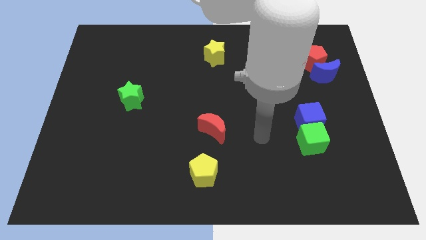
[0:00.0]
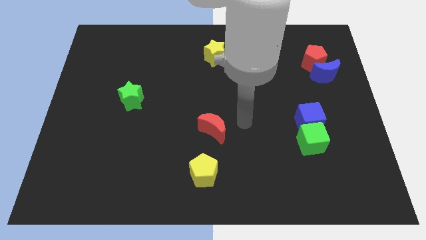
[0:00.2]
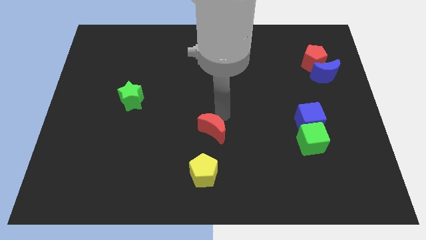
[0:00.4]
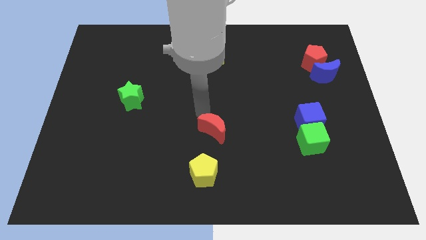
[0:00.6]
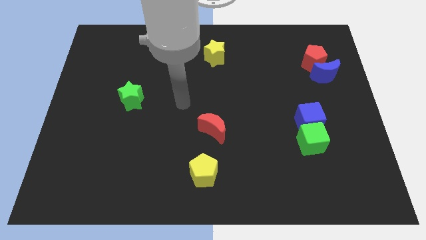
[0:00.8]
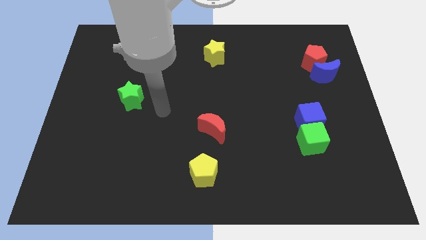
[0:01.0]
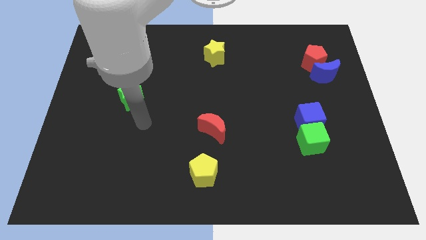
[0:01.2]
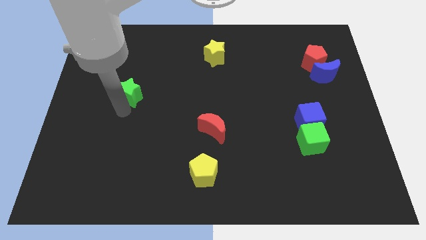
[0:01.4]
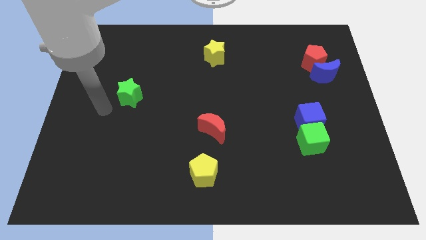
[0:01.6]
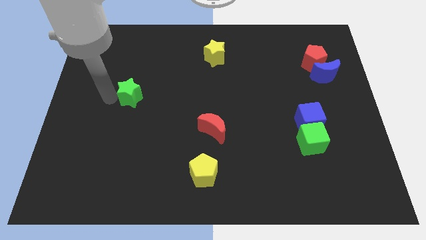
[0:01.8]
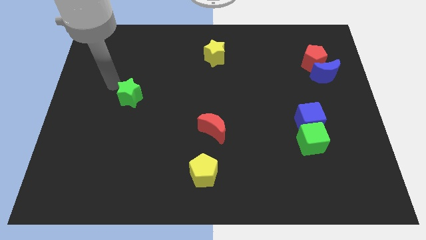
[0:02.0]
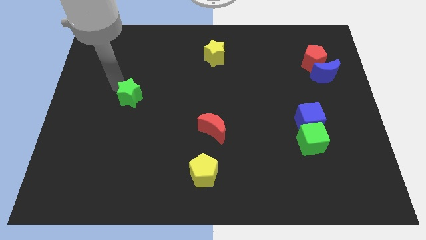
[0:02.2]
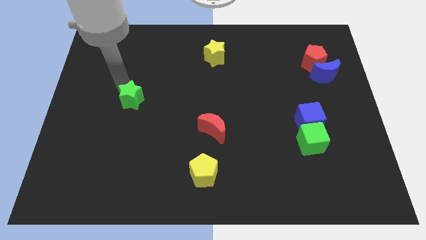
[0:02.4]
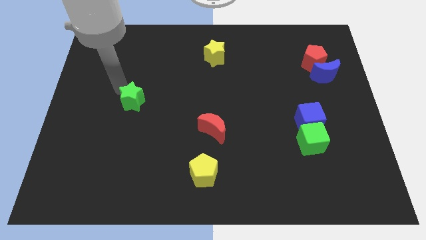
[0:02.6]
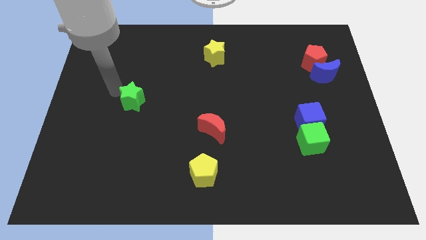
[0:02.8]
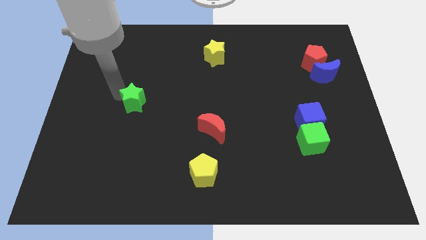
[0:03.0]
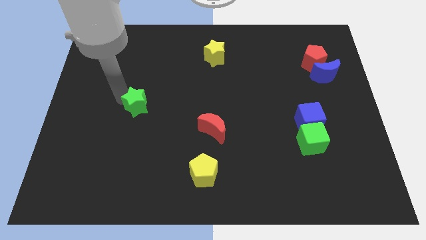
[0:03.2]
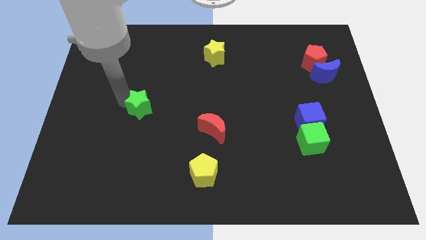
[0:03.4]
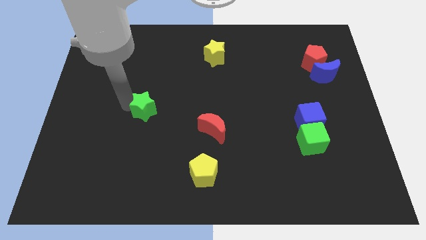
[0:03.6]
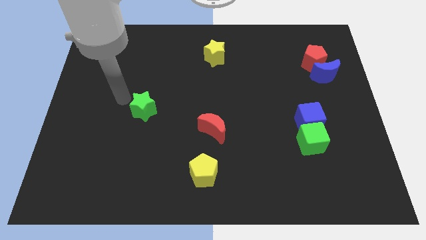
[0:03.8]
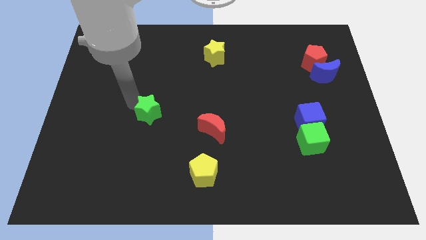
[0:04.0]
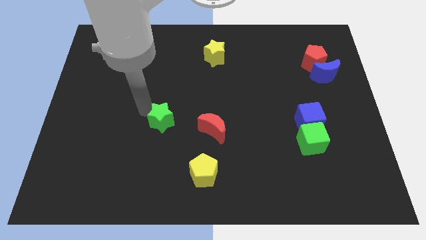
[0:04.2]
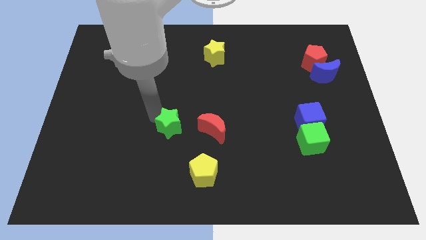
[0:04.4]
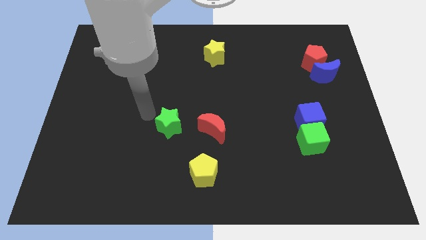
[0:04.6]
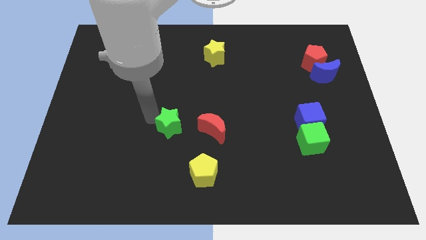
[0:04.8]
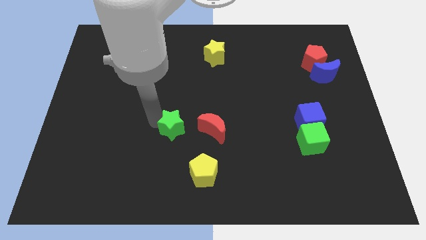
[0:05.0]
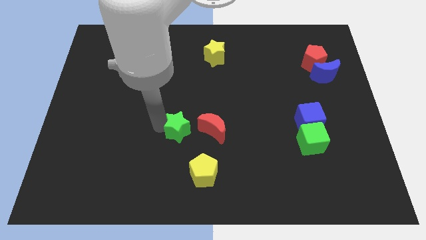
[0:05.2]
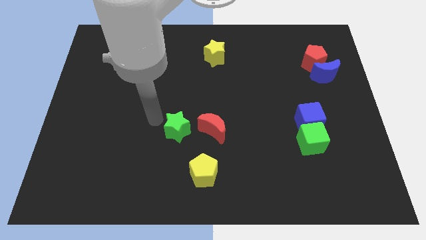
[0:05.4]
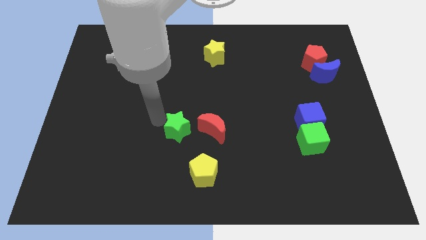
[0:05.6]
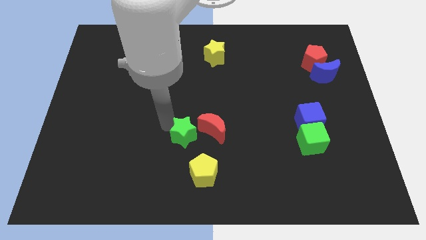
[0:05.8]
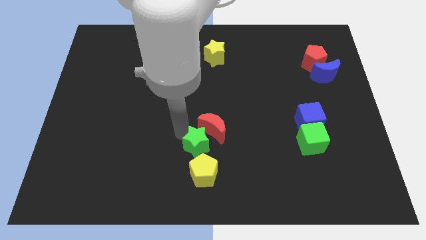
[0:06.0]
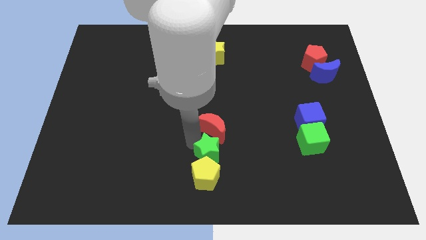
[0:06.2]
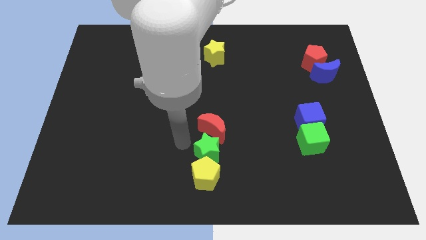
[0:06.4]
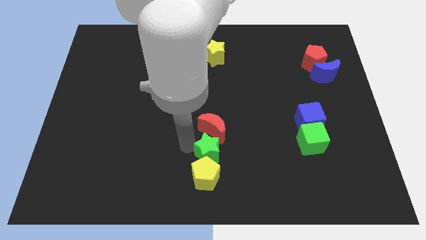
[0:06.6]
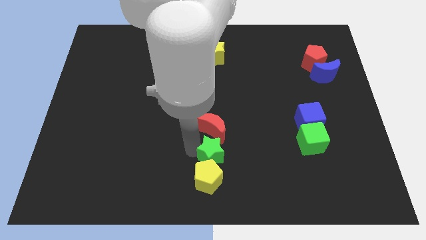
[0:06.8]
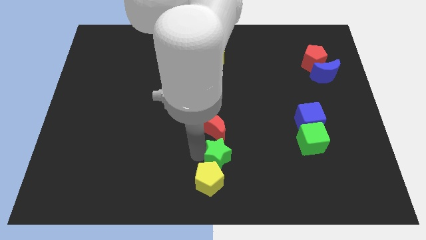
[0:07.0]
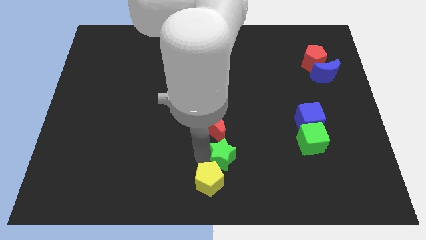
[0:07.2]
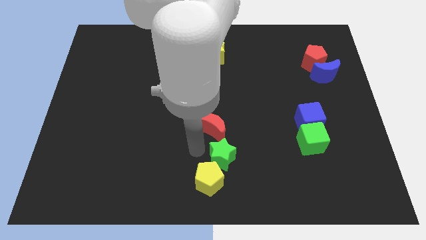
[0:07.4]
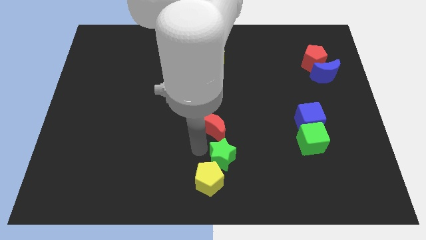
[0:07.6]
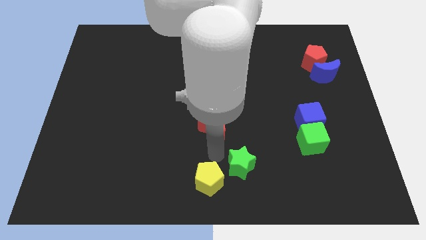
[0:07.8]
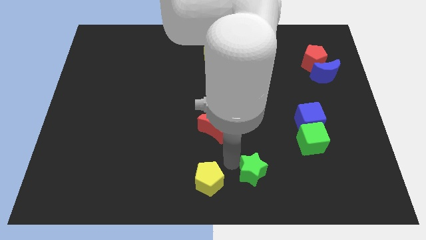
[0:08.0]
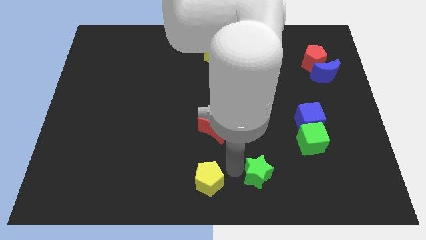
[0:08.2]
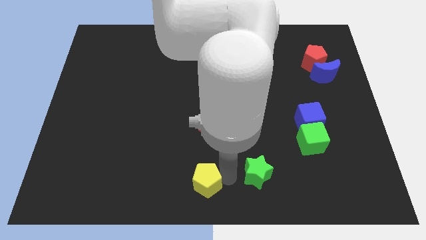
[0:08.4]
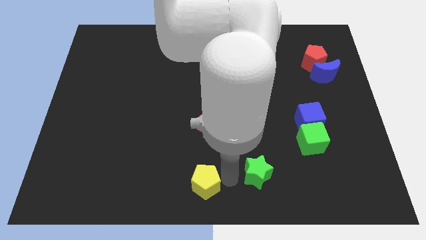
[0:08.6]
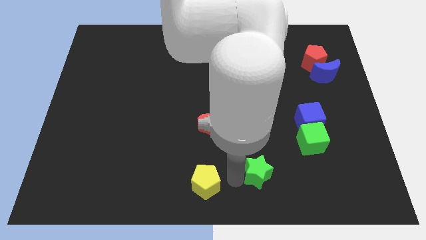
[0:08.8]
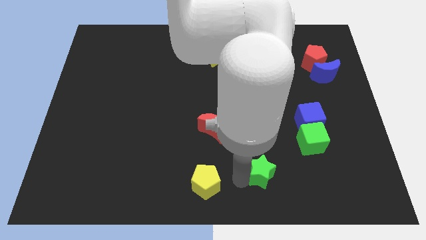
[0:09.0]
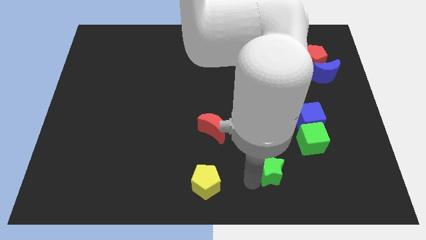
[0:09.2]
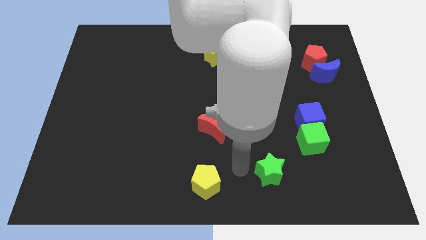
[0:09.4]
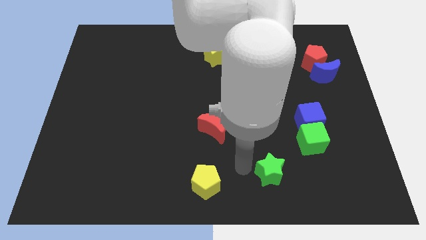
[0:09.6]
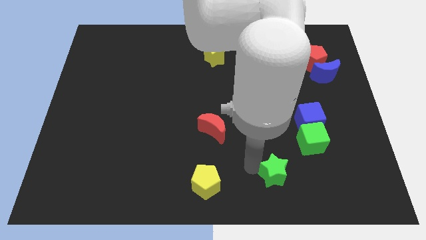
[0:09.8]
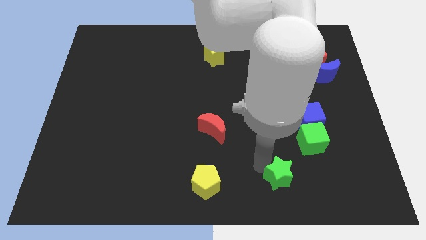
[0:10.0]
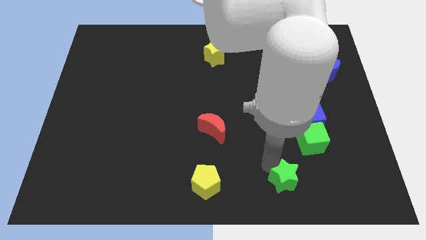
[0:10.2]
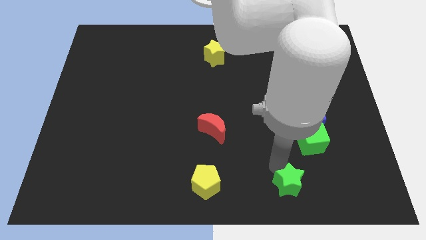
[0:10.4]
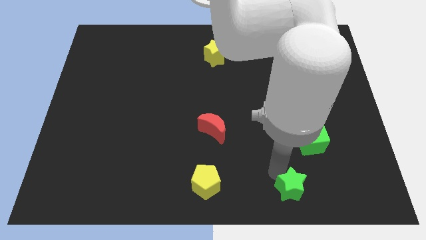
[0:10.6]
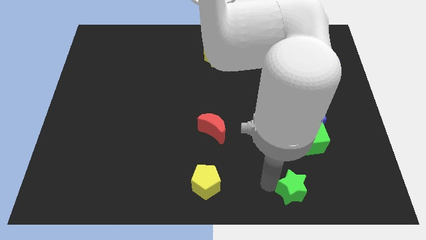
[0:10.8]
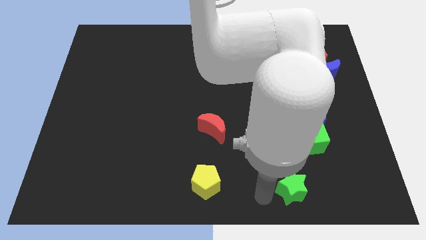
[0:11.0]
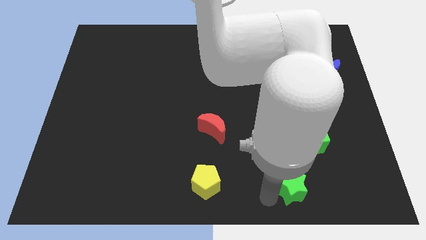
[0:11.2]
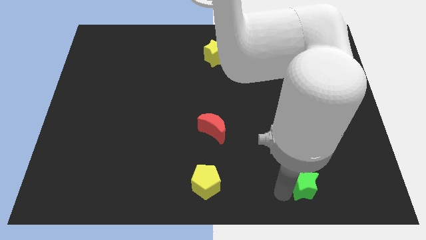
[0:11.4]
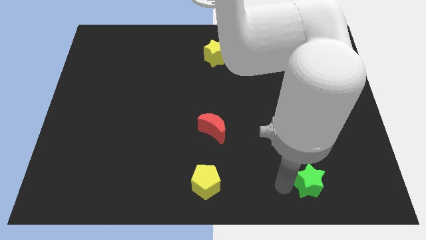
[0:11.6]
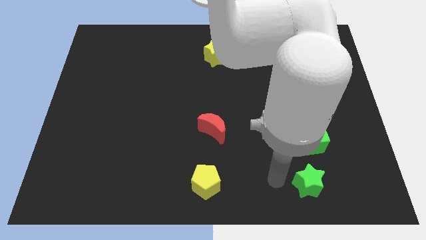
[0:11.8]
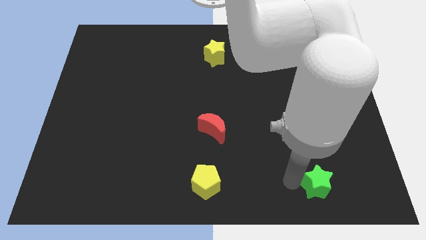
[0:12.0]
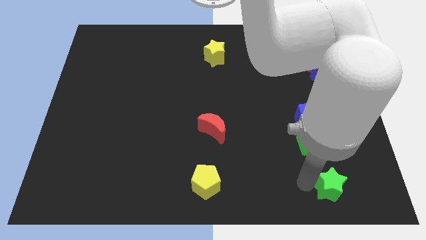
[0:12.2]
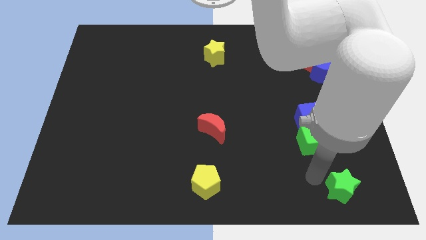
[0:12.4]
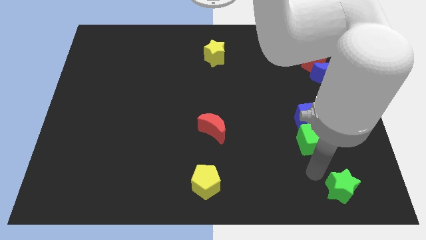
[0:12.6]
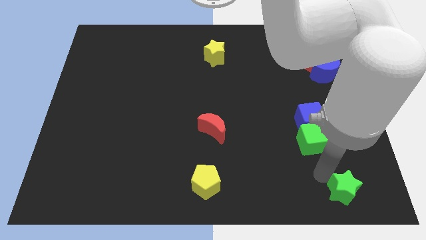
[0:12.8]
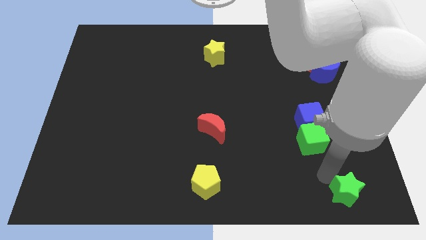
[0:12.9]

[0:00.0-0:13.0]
push the green star to the bottom right of the board
